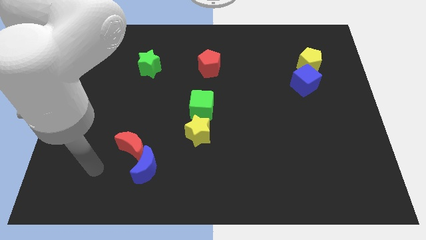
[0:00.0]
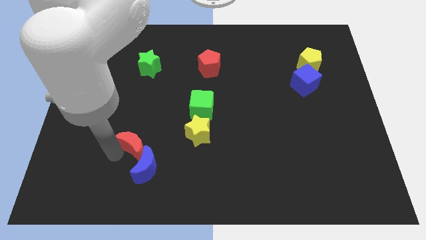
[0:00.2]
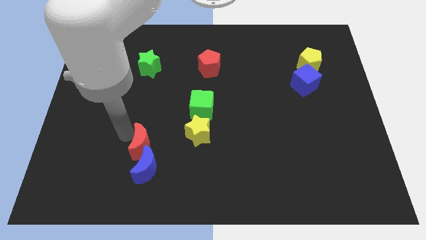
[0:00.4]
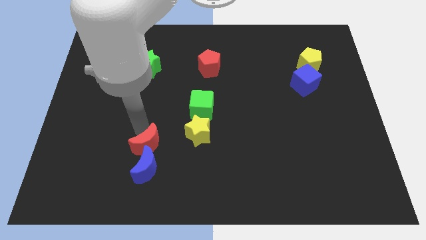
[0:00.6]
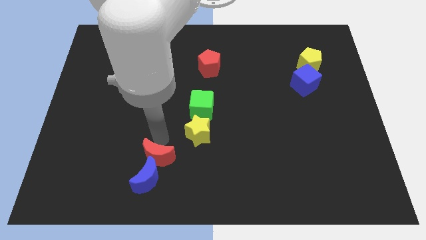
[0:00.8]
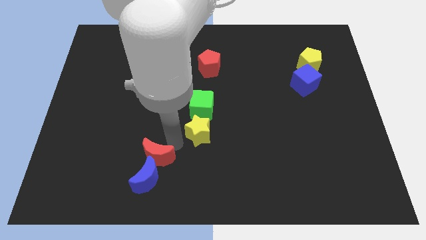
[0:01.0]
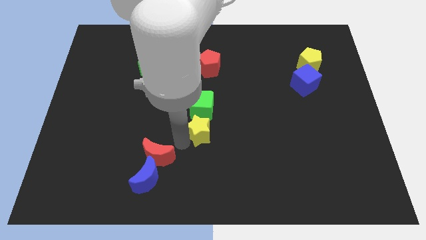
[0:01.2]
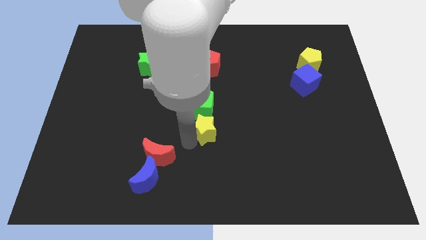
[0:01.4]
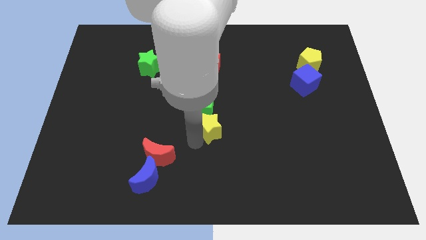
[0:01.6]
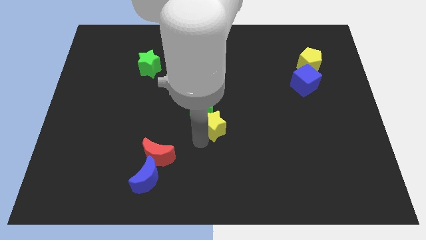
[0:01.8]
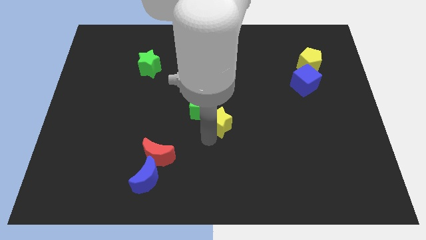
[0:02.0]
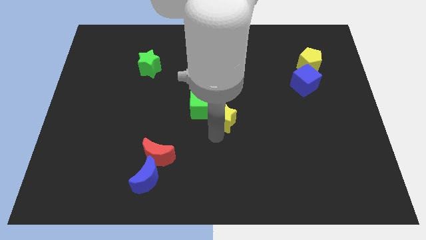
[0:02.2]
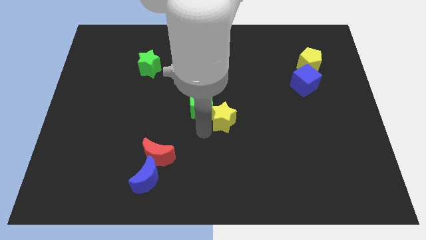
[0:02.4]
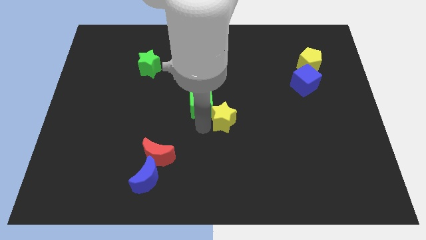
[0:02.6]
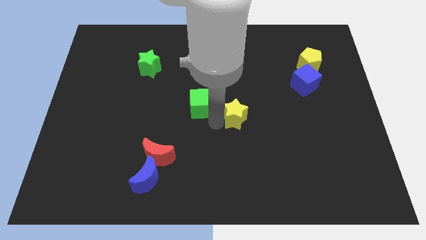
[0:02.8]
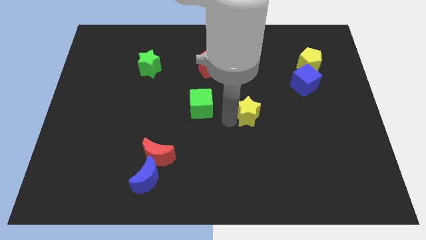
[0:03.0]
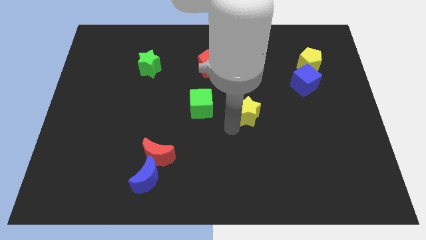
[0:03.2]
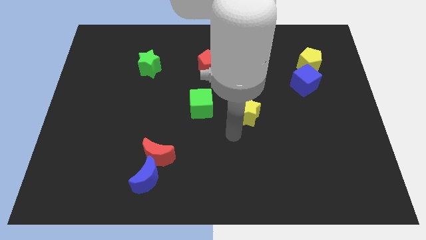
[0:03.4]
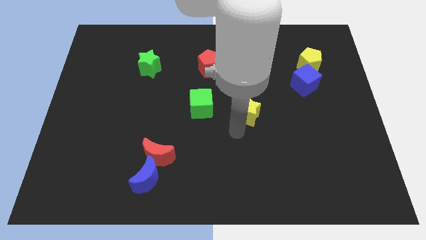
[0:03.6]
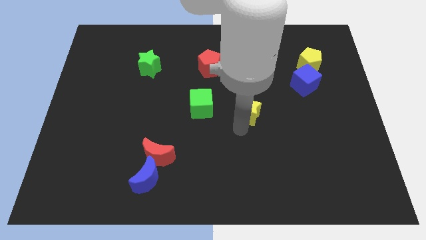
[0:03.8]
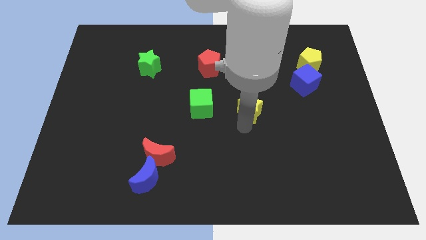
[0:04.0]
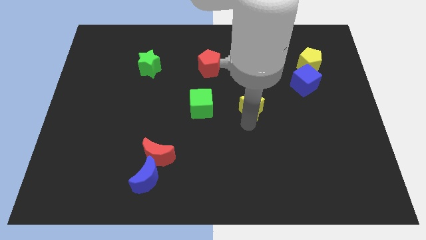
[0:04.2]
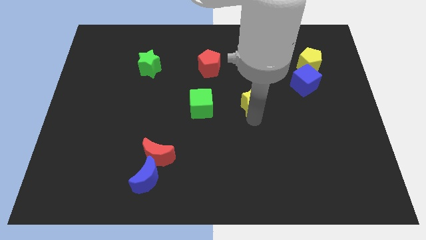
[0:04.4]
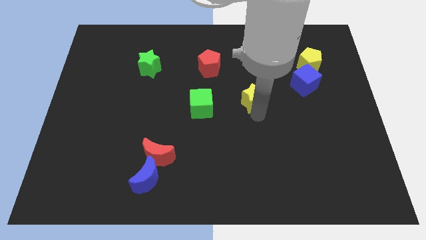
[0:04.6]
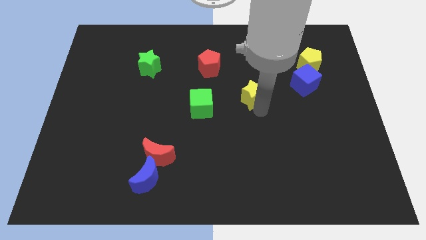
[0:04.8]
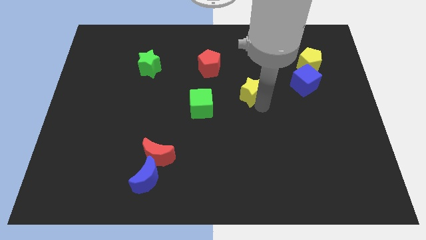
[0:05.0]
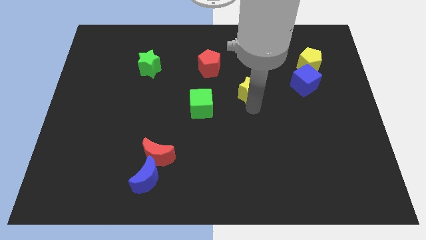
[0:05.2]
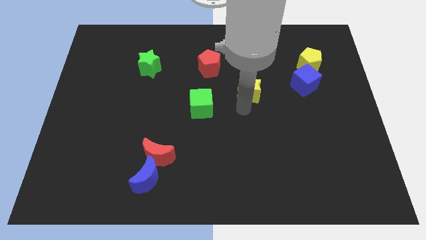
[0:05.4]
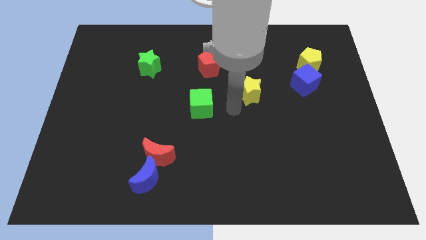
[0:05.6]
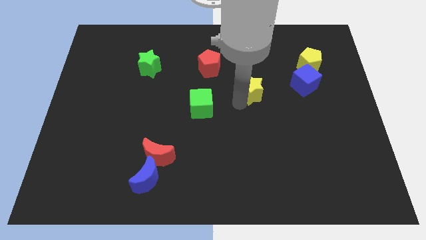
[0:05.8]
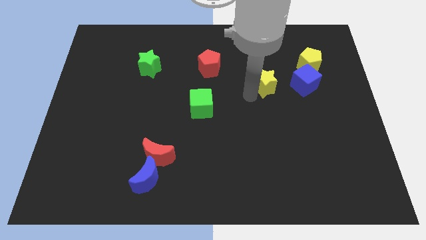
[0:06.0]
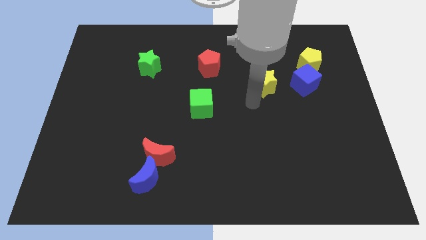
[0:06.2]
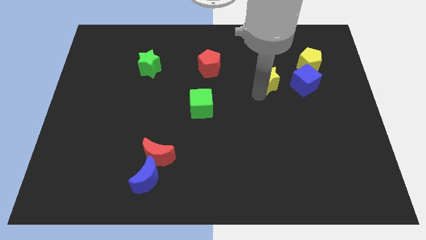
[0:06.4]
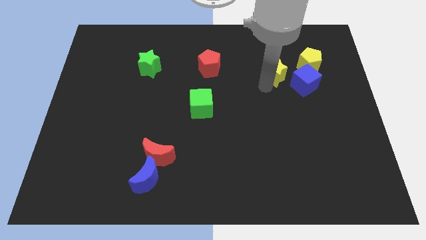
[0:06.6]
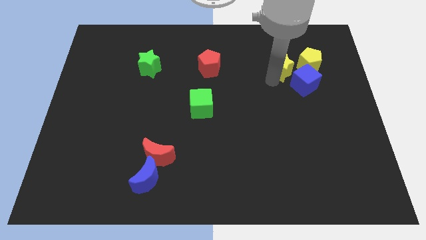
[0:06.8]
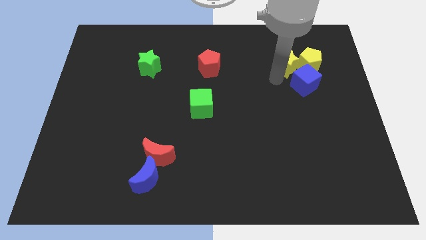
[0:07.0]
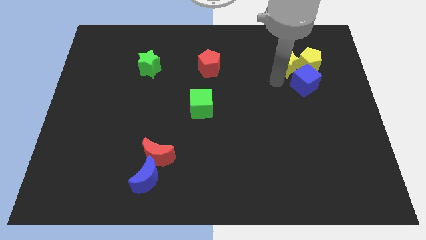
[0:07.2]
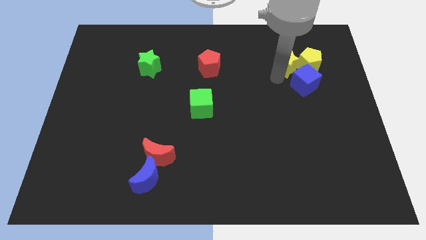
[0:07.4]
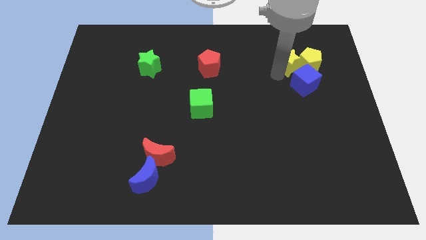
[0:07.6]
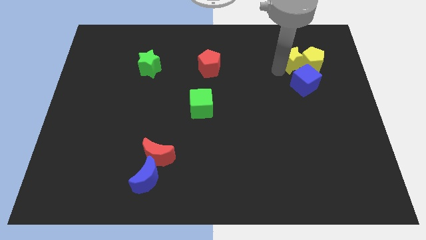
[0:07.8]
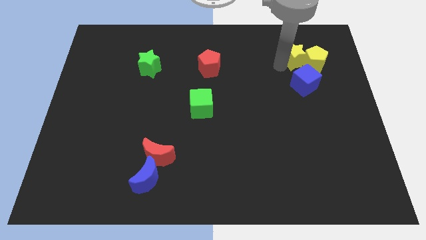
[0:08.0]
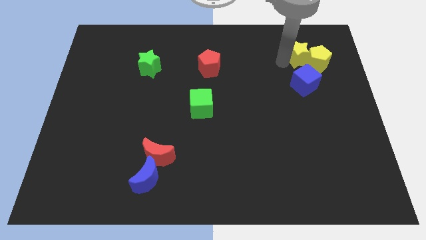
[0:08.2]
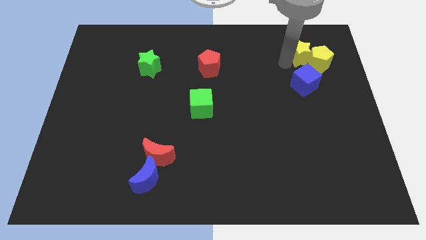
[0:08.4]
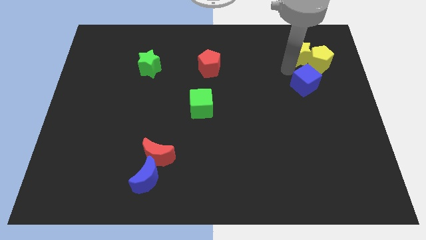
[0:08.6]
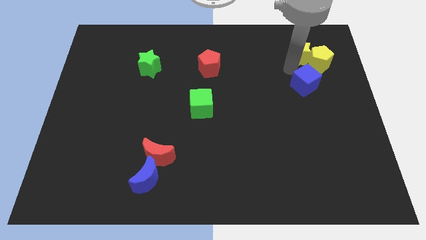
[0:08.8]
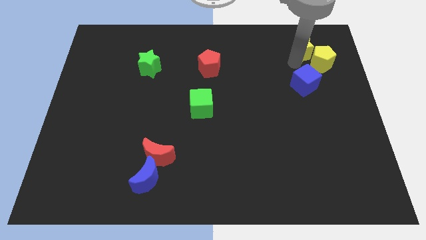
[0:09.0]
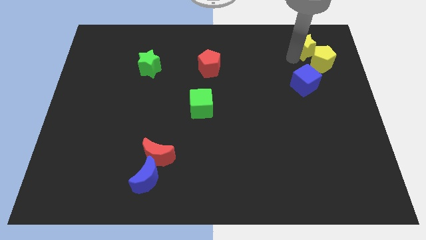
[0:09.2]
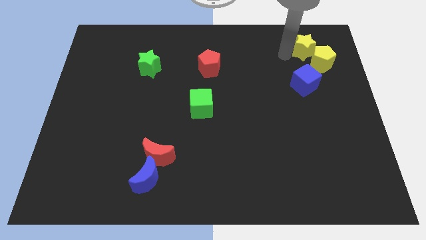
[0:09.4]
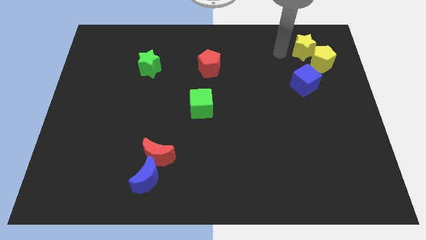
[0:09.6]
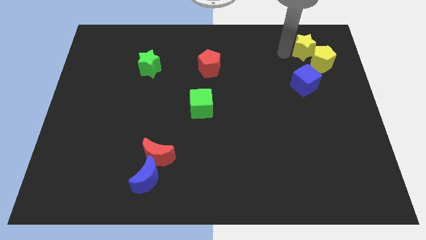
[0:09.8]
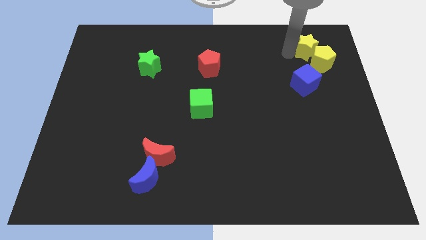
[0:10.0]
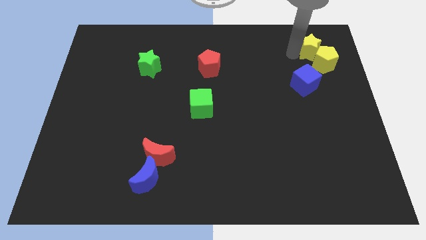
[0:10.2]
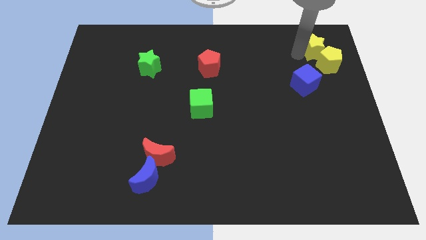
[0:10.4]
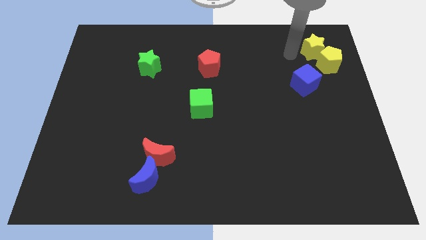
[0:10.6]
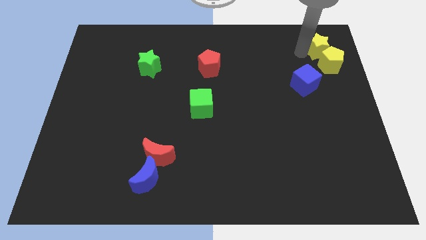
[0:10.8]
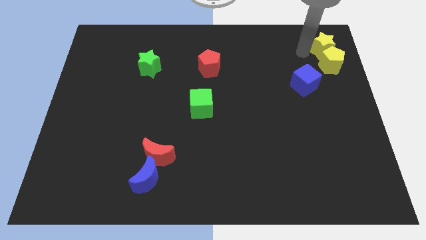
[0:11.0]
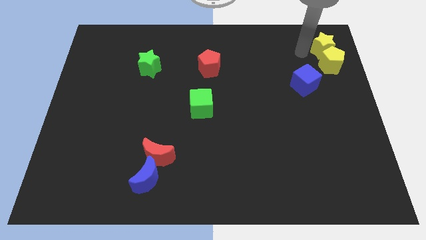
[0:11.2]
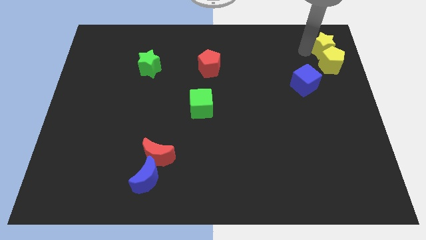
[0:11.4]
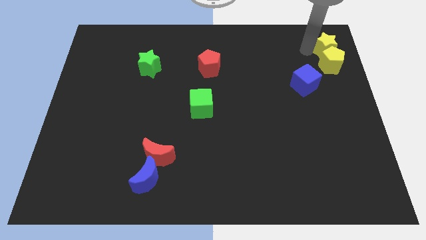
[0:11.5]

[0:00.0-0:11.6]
push the yellow star to the top right corner

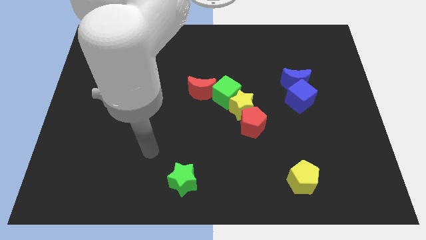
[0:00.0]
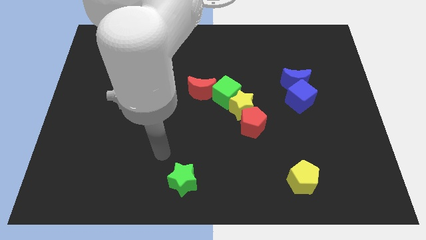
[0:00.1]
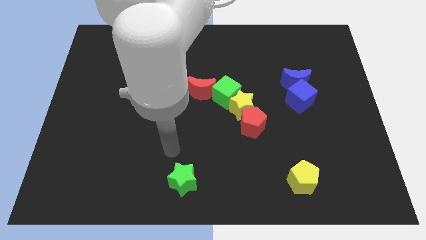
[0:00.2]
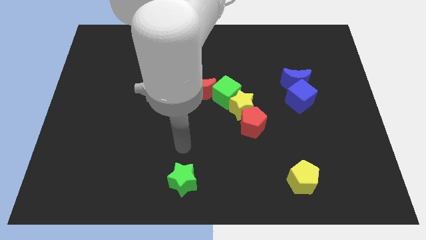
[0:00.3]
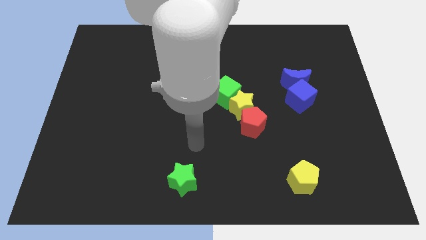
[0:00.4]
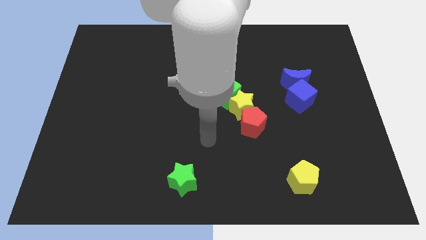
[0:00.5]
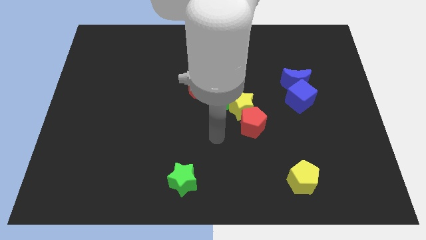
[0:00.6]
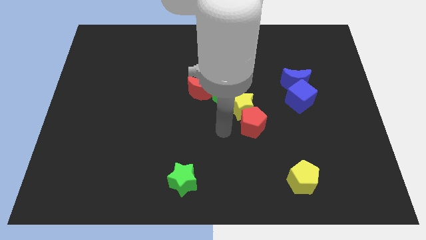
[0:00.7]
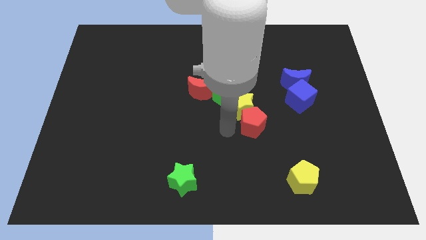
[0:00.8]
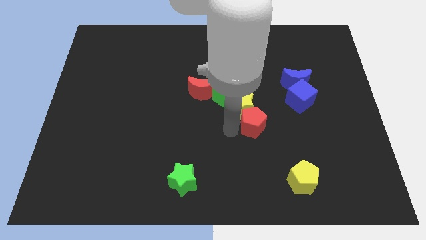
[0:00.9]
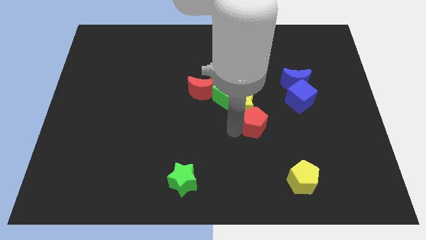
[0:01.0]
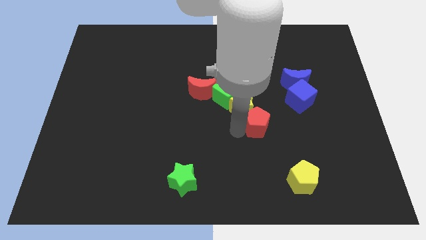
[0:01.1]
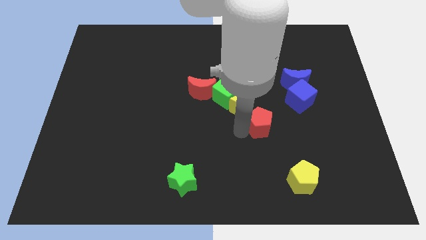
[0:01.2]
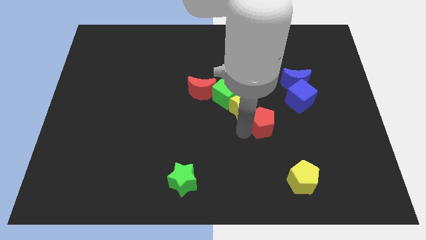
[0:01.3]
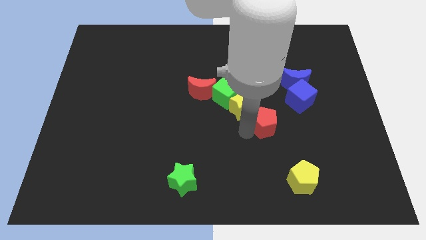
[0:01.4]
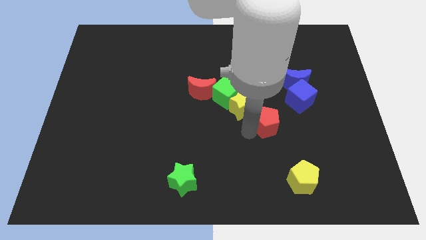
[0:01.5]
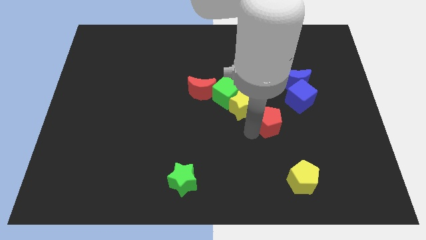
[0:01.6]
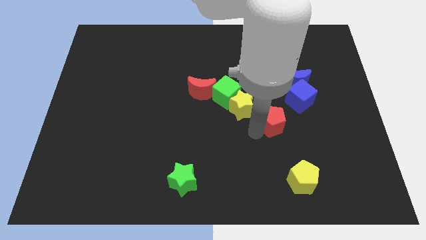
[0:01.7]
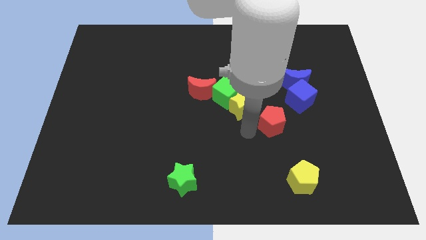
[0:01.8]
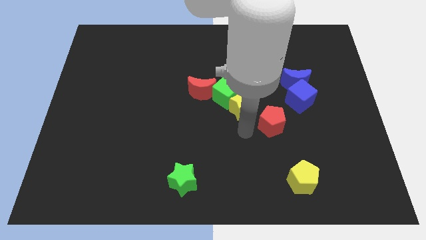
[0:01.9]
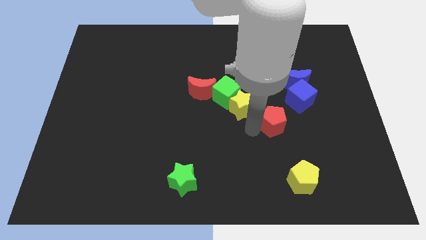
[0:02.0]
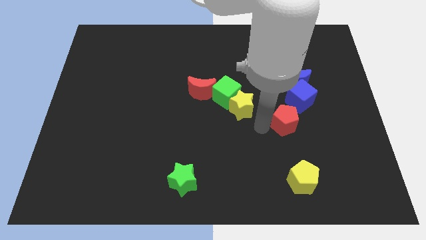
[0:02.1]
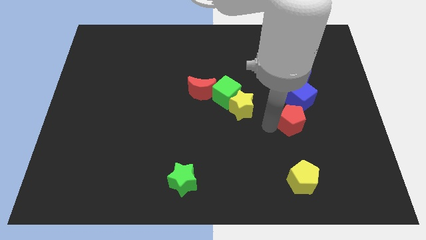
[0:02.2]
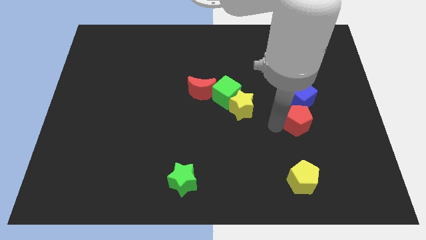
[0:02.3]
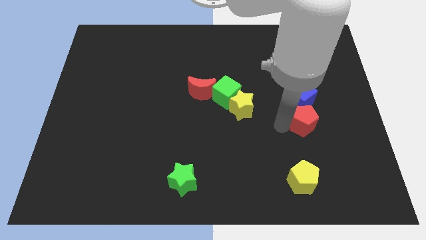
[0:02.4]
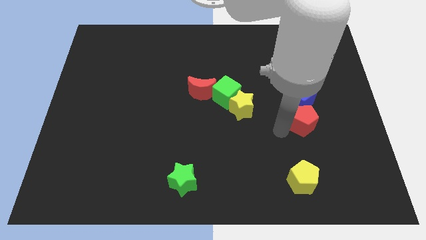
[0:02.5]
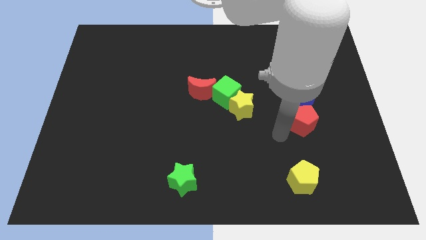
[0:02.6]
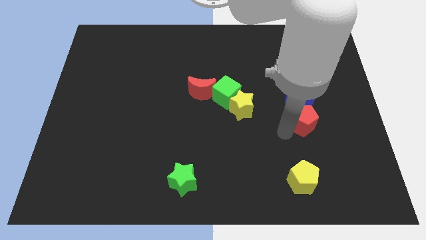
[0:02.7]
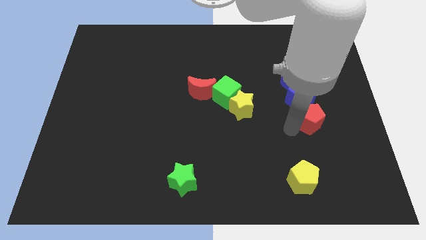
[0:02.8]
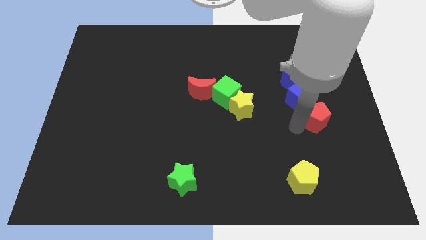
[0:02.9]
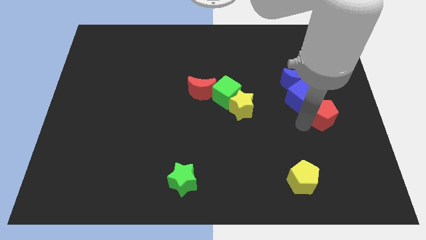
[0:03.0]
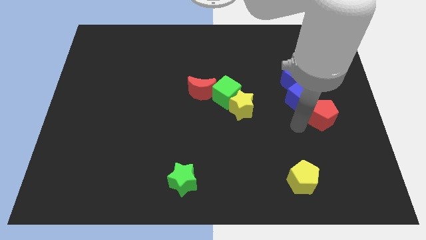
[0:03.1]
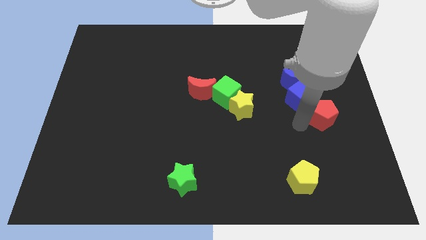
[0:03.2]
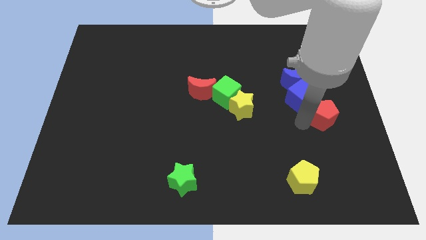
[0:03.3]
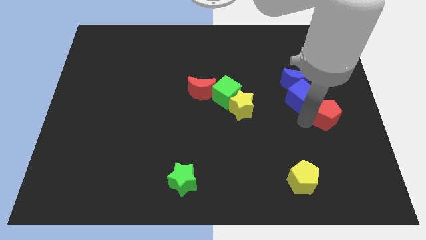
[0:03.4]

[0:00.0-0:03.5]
move the red pentagon to the right side of the board
